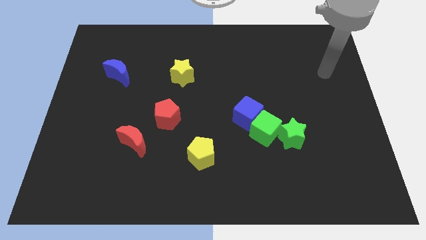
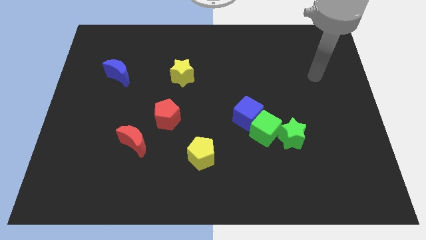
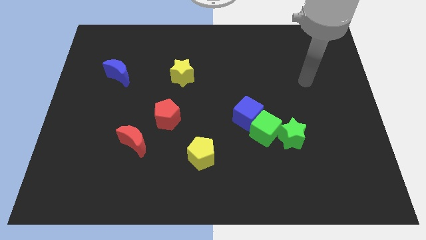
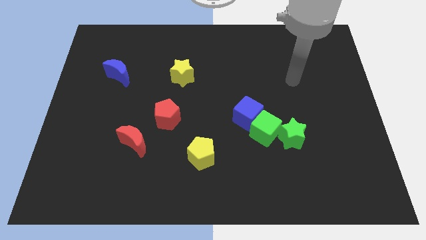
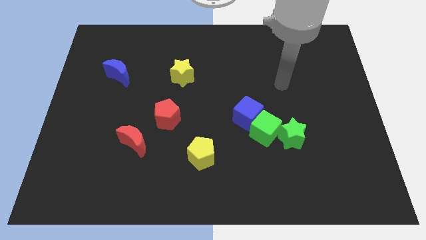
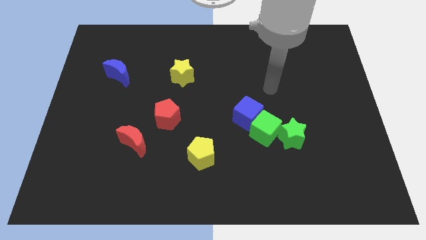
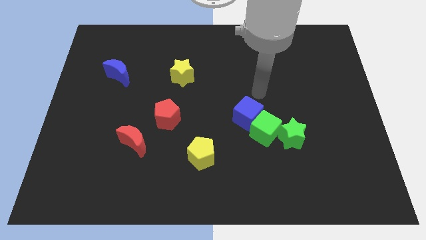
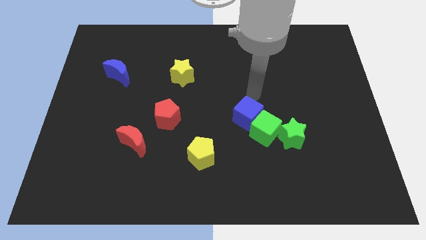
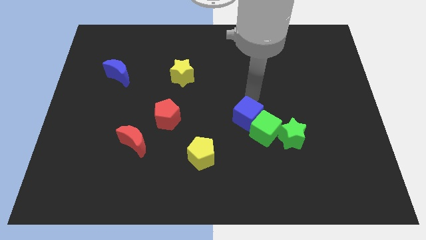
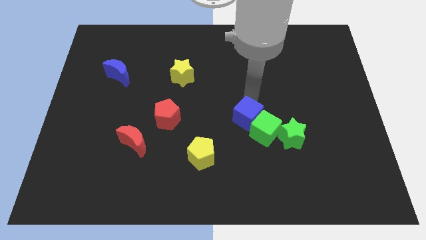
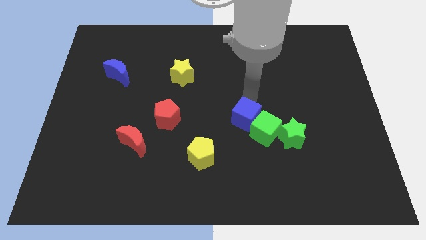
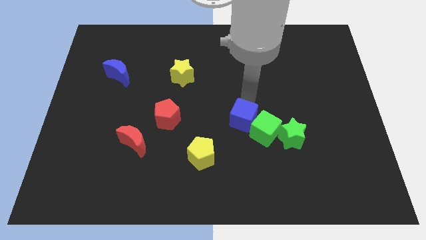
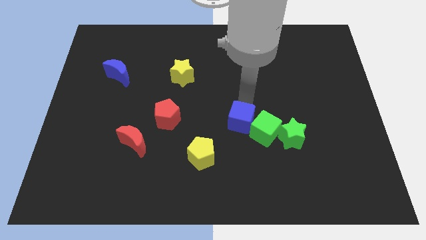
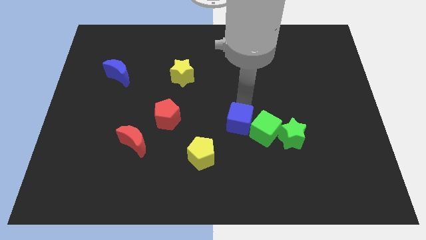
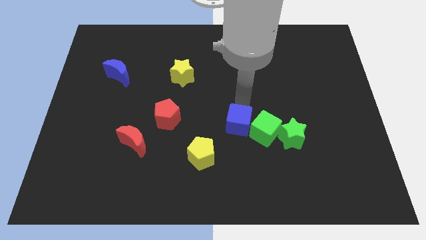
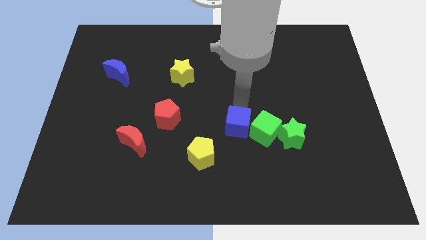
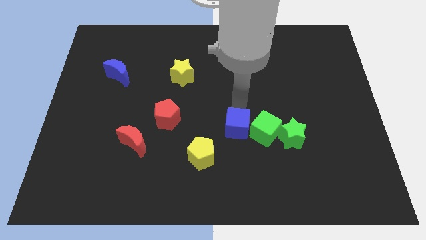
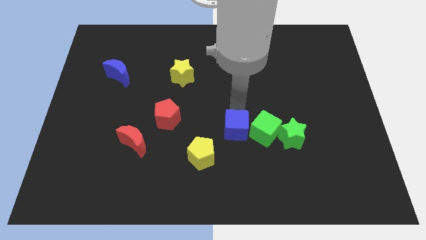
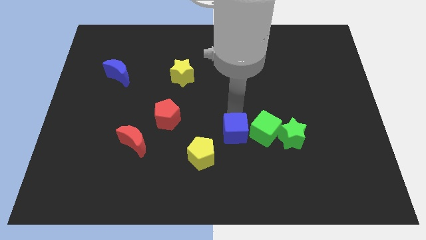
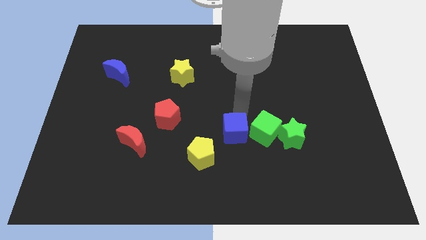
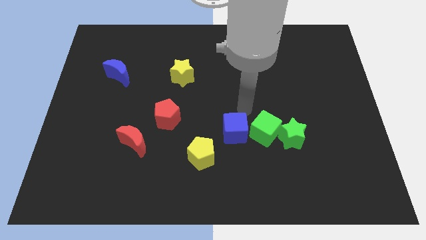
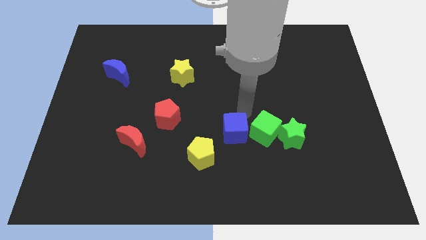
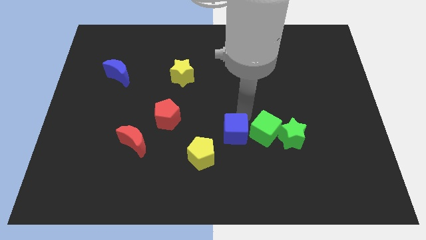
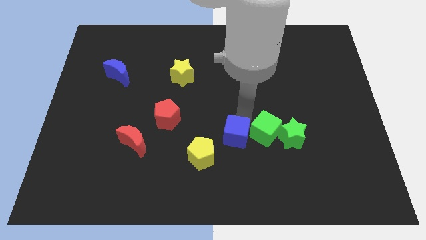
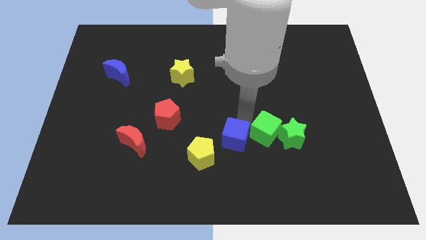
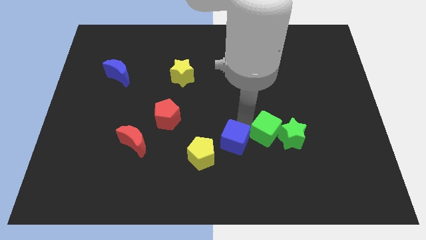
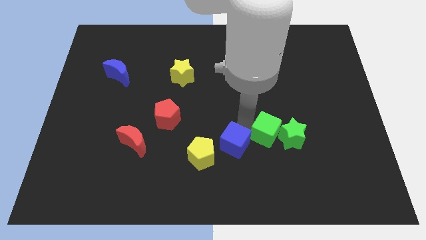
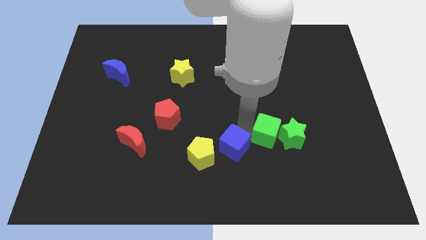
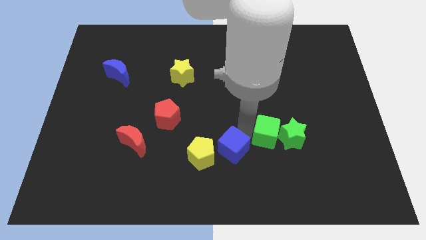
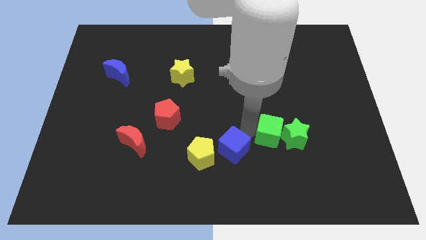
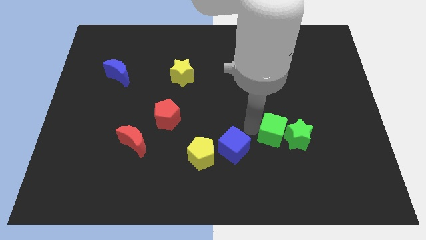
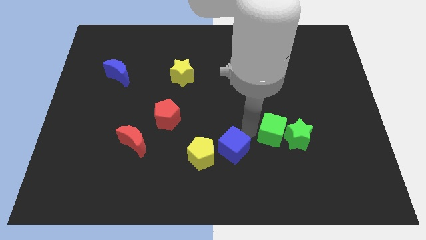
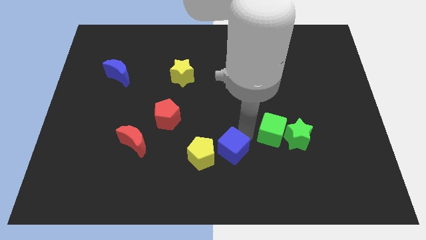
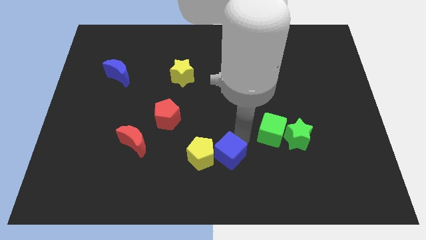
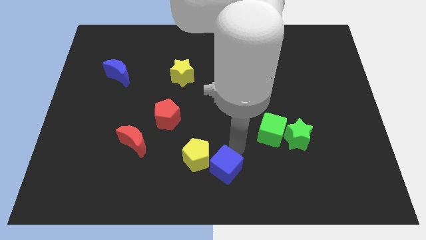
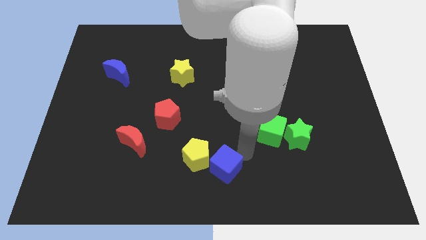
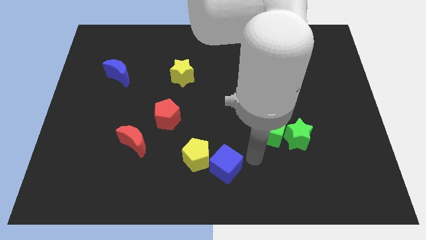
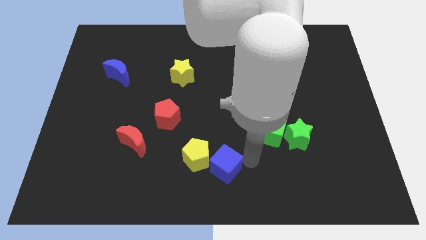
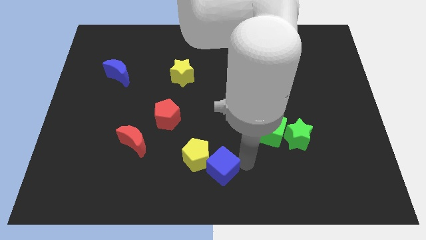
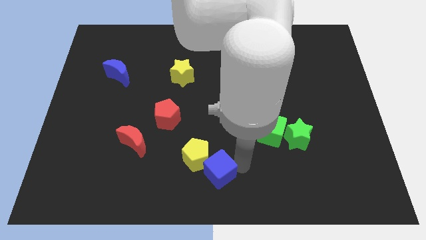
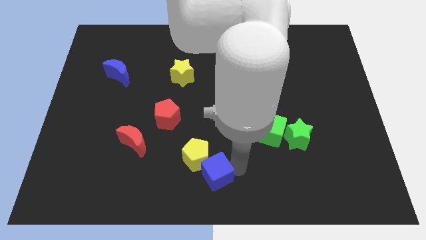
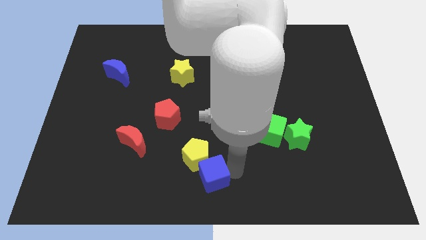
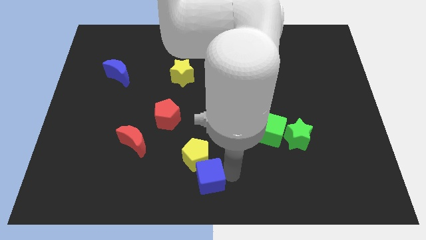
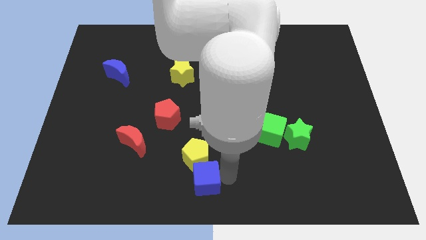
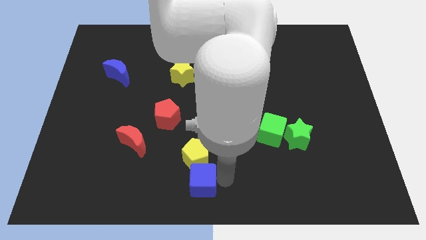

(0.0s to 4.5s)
put the blue cube diagonally down and to the left of the yellow pentagon

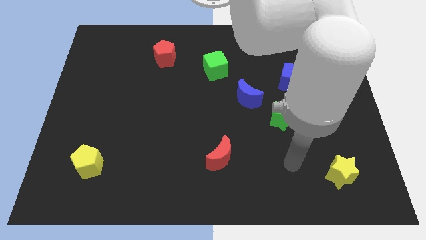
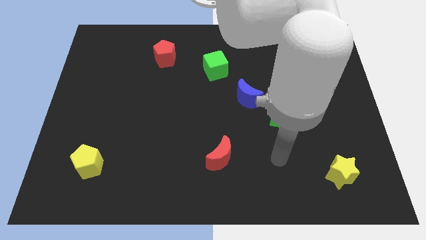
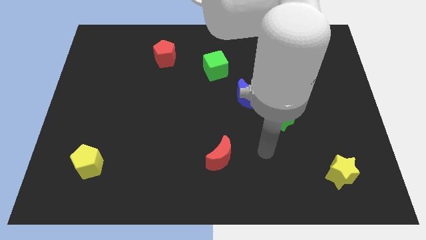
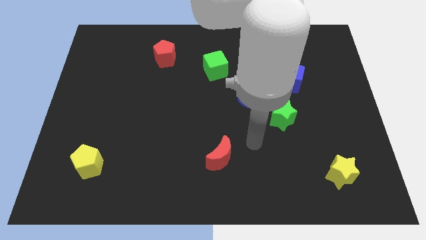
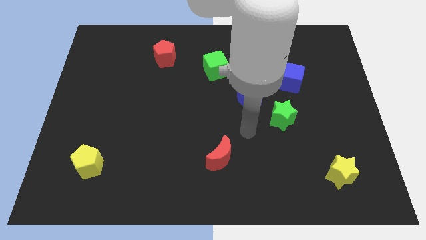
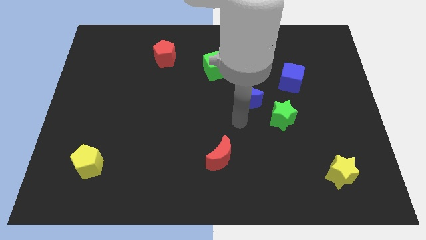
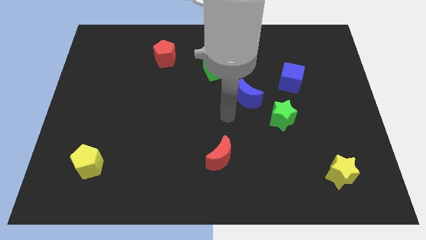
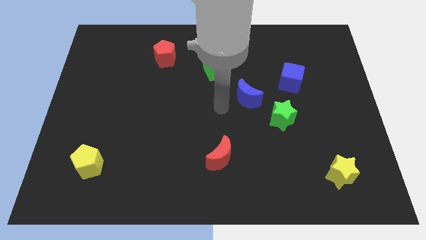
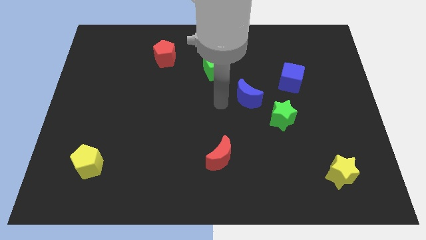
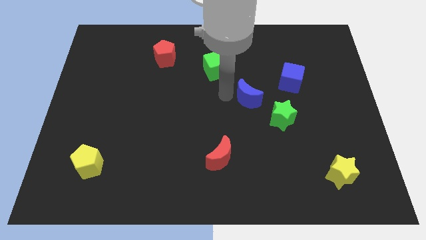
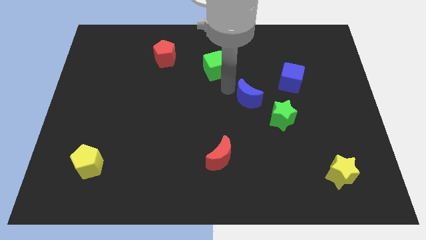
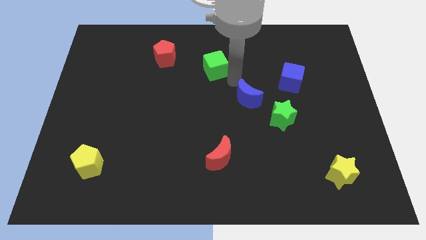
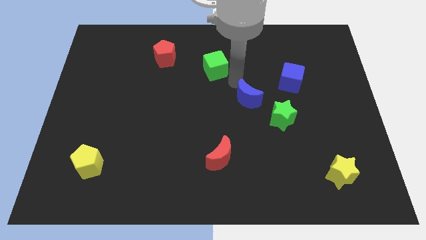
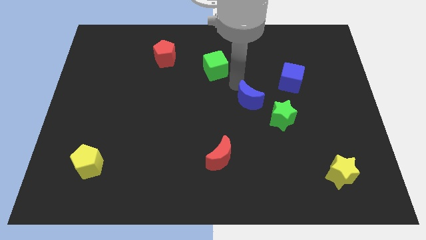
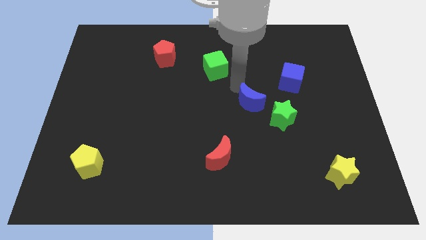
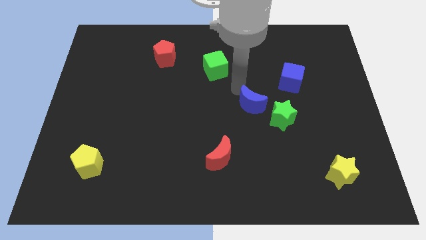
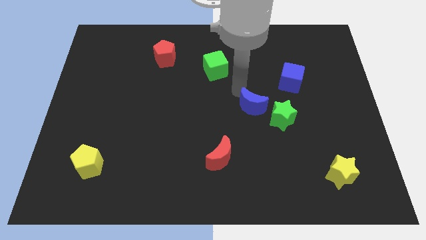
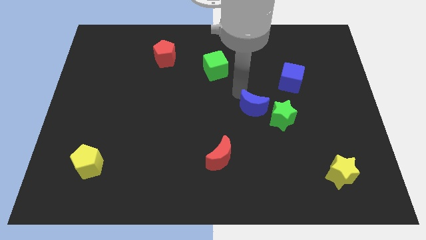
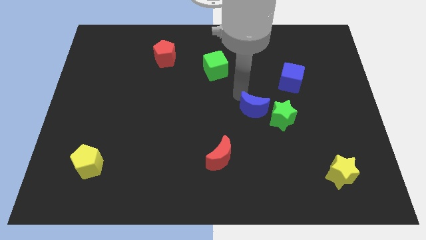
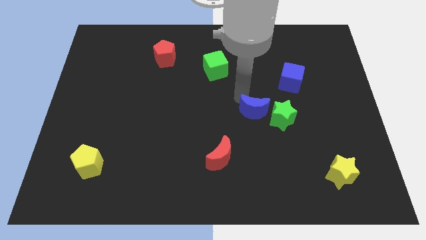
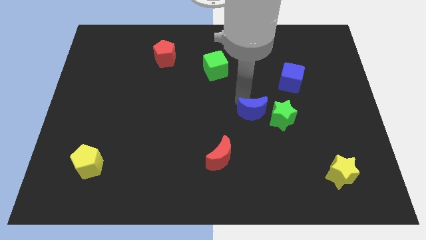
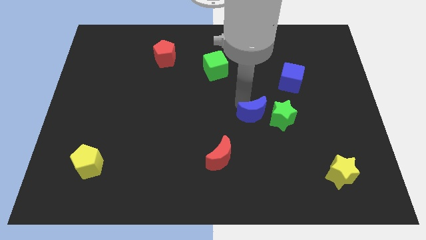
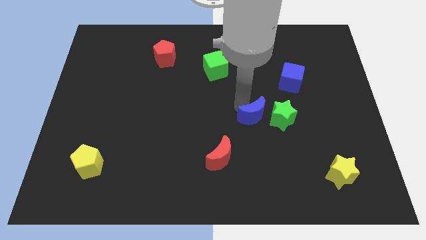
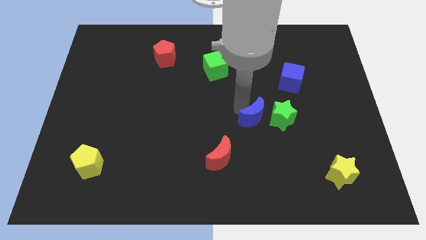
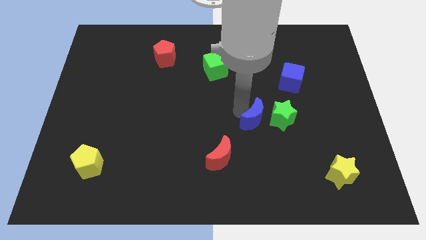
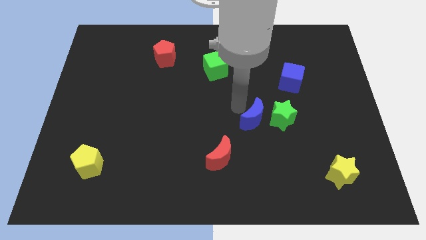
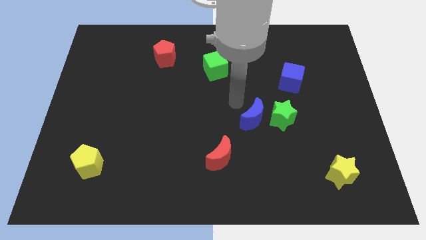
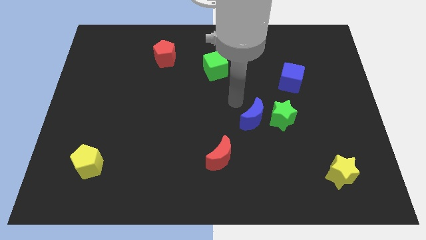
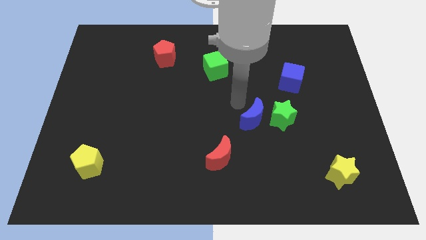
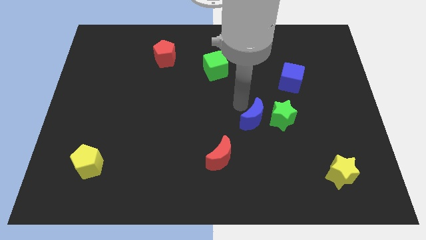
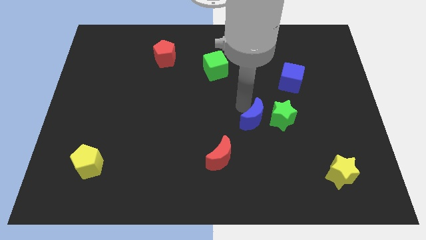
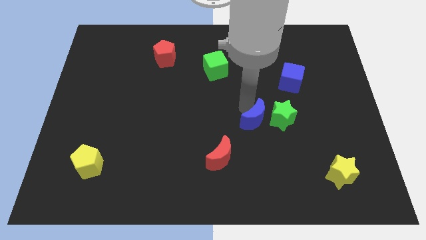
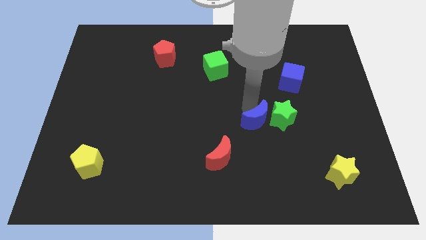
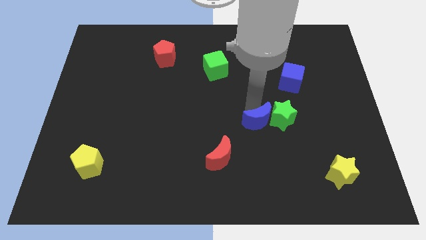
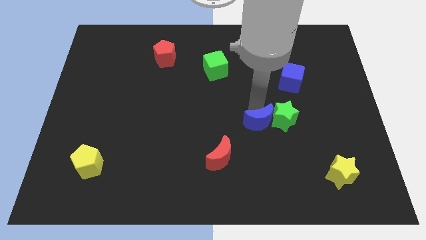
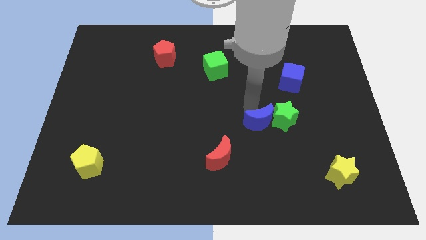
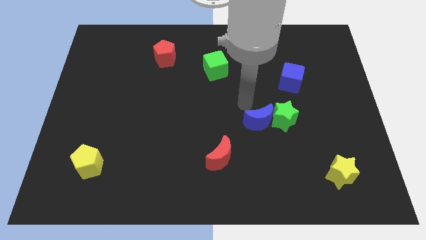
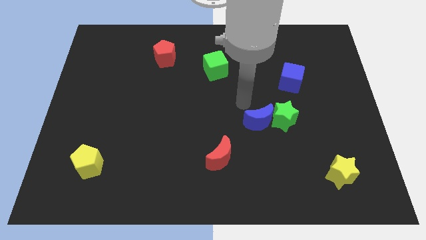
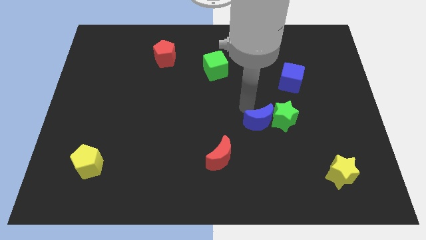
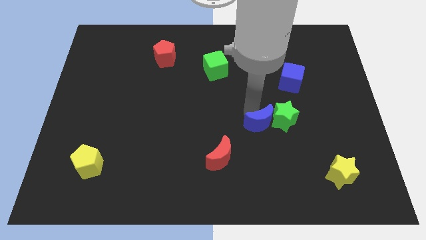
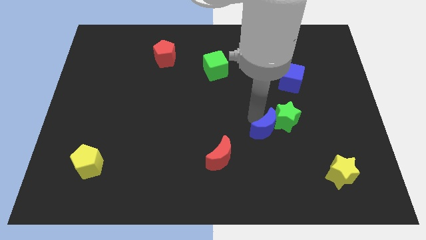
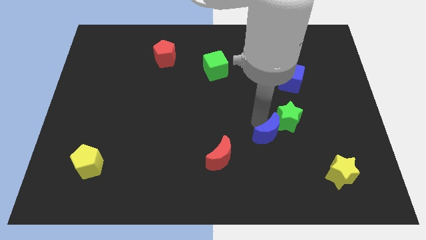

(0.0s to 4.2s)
move the blue moon to the bottom of the green star
